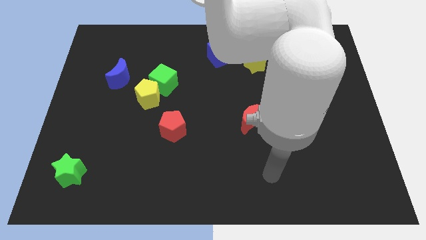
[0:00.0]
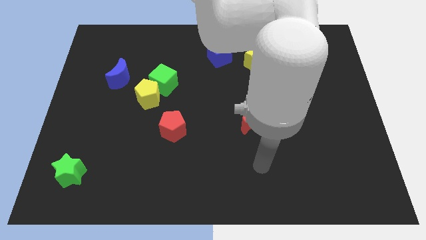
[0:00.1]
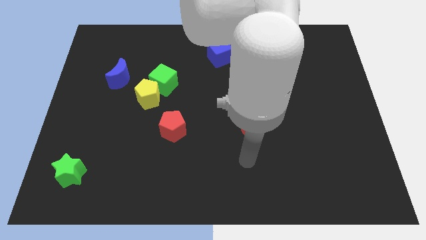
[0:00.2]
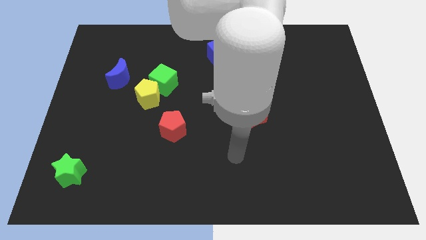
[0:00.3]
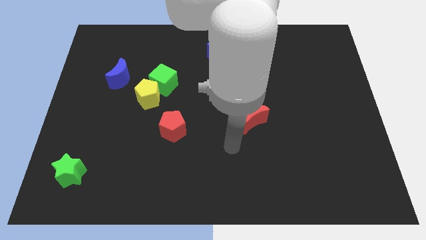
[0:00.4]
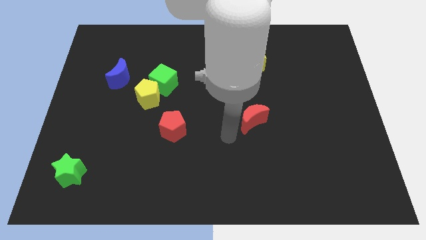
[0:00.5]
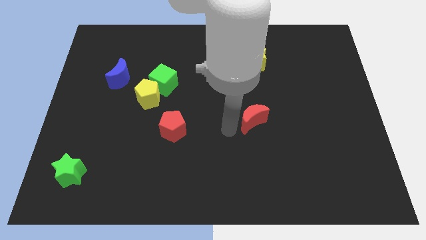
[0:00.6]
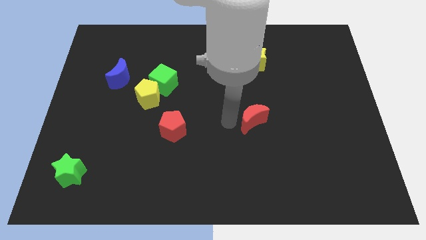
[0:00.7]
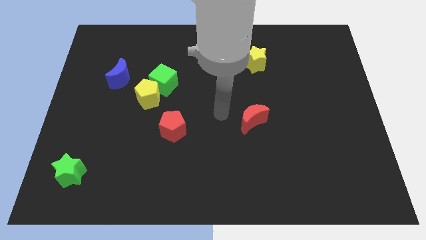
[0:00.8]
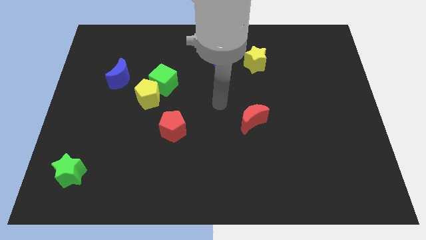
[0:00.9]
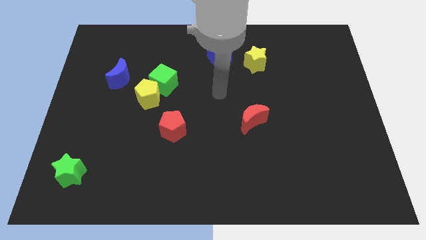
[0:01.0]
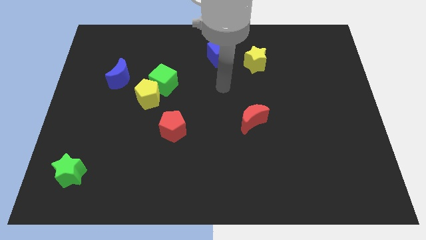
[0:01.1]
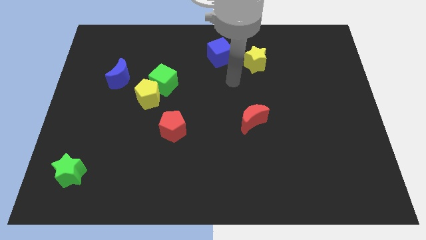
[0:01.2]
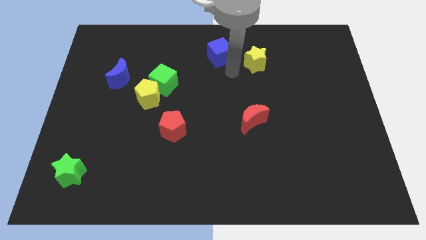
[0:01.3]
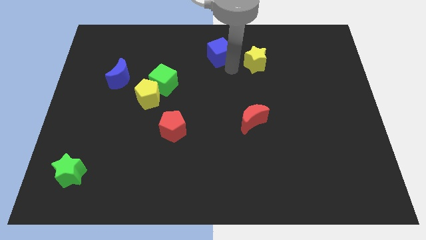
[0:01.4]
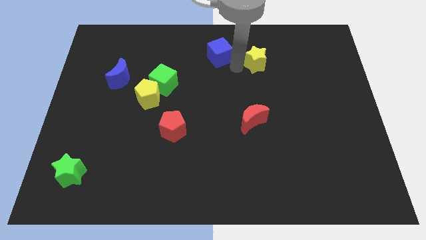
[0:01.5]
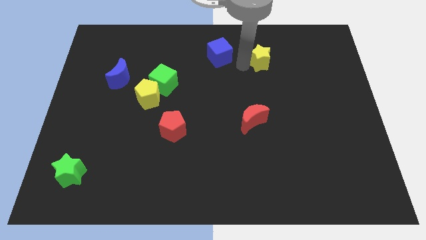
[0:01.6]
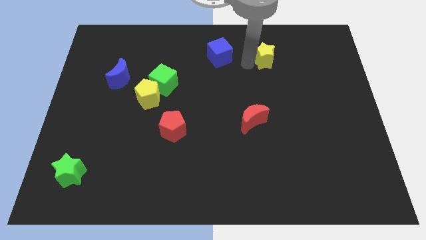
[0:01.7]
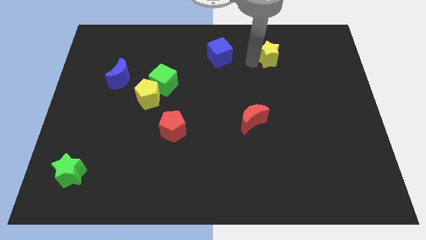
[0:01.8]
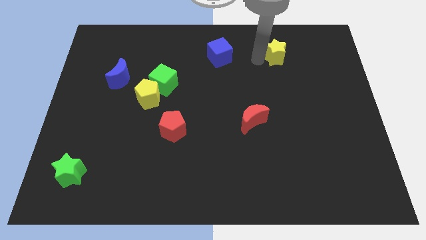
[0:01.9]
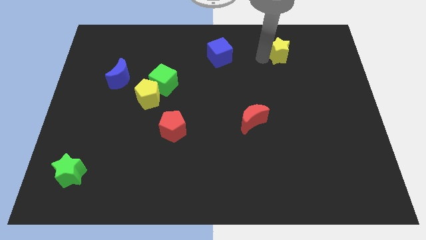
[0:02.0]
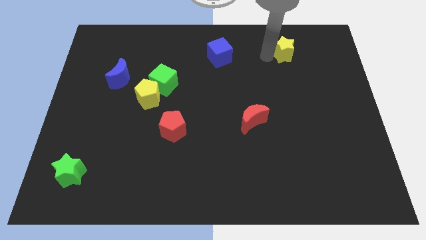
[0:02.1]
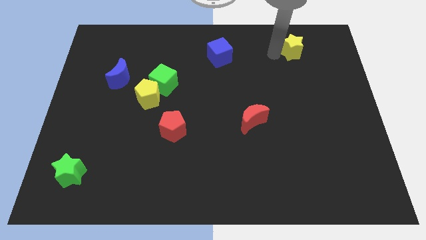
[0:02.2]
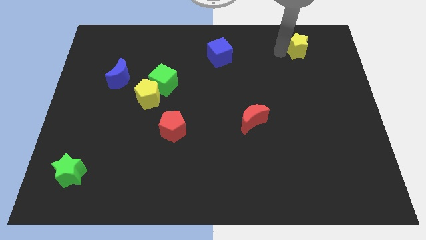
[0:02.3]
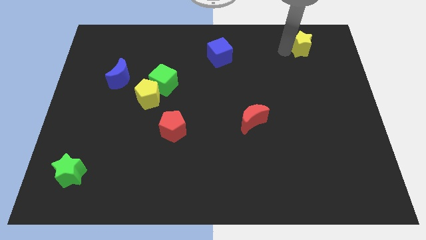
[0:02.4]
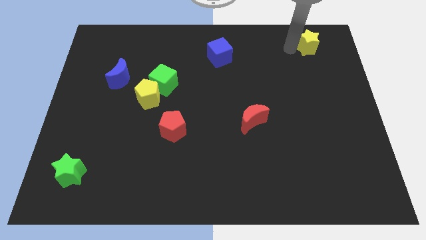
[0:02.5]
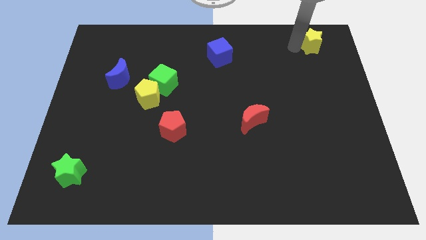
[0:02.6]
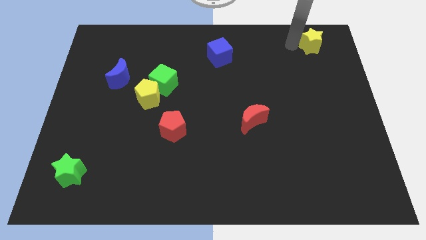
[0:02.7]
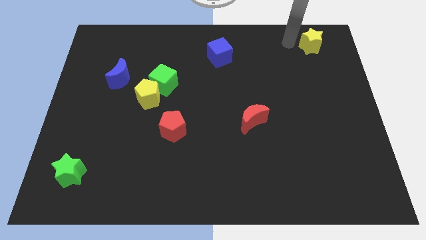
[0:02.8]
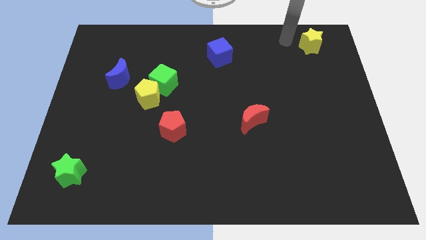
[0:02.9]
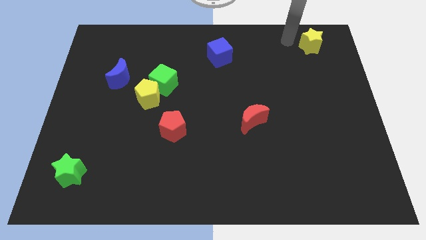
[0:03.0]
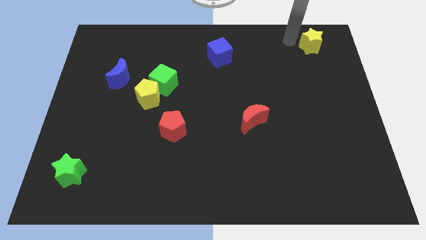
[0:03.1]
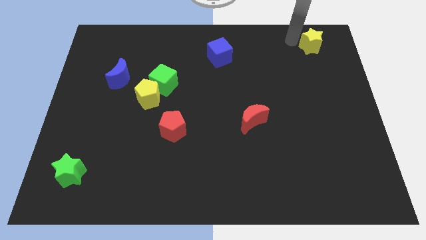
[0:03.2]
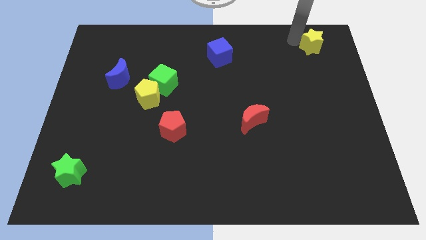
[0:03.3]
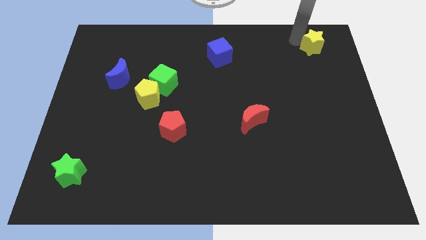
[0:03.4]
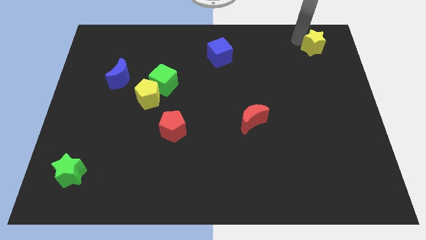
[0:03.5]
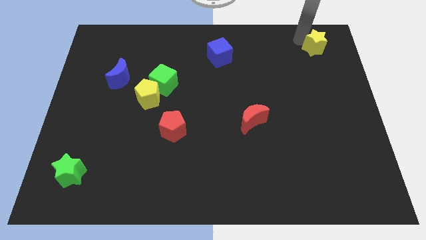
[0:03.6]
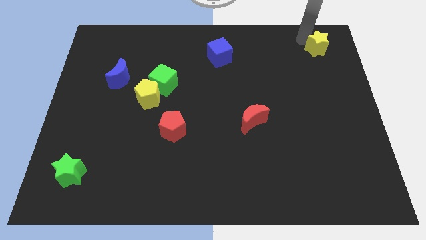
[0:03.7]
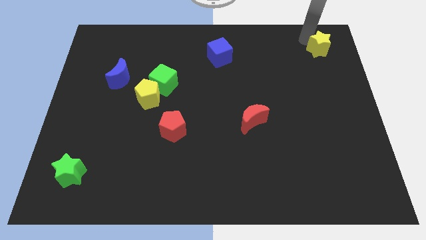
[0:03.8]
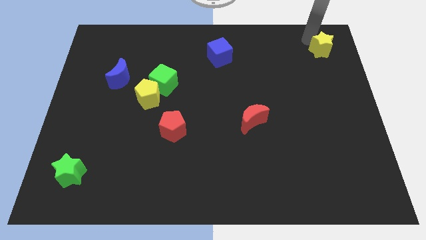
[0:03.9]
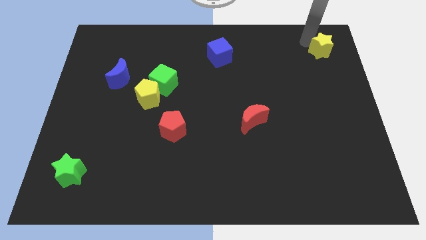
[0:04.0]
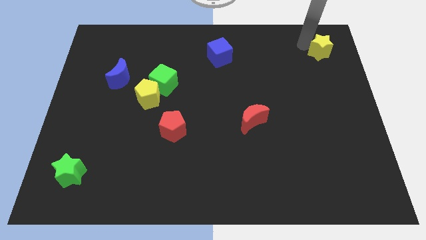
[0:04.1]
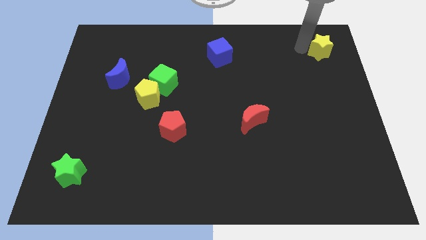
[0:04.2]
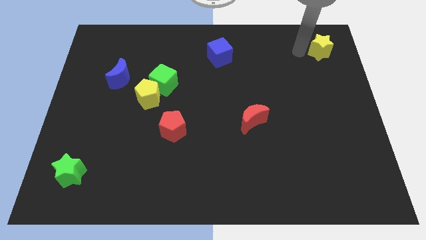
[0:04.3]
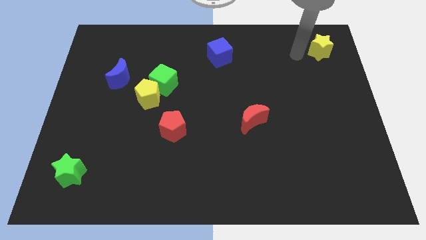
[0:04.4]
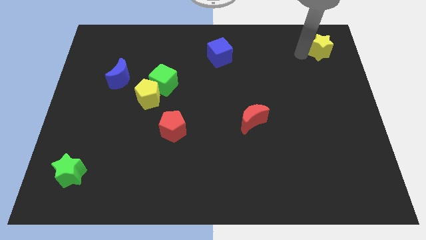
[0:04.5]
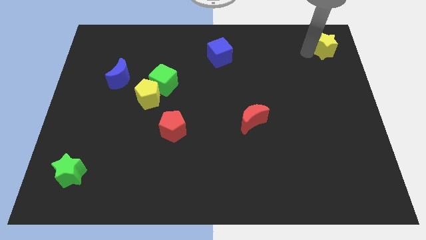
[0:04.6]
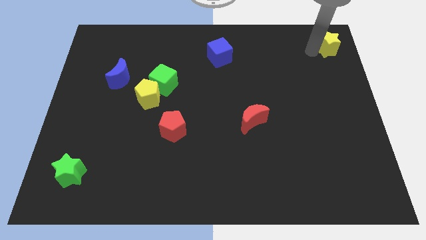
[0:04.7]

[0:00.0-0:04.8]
push the yellow star to the upper right corner

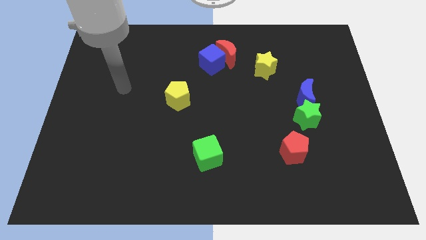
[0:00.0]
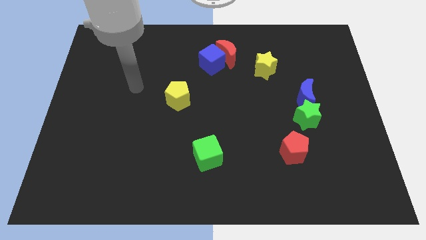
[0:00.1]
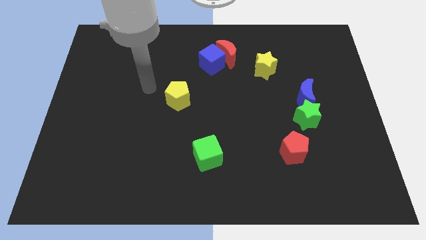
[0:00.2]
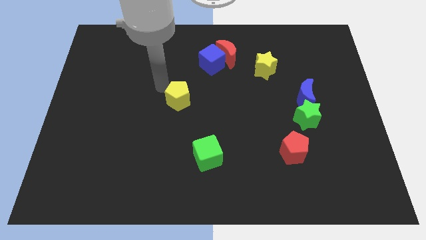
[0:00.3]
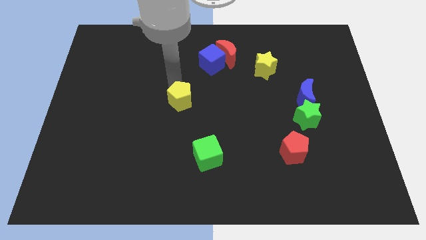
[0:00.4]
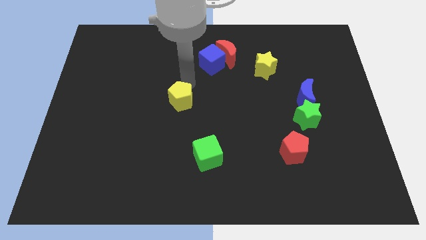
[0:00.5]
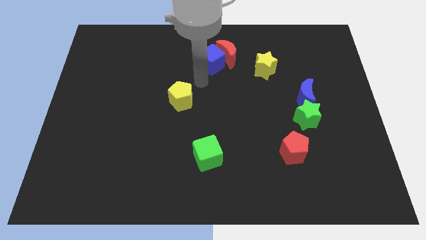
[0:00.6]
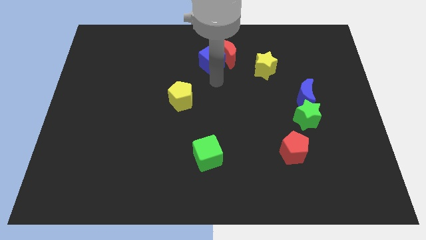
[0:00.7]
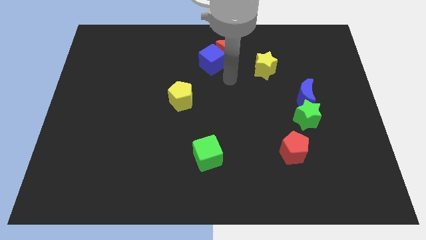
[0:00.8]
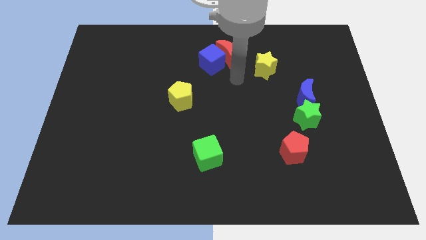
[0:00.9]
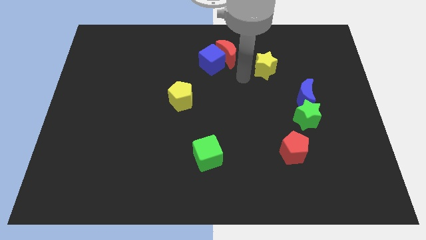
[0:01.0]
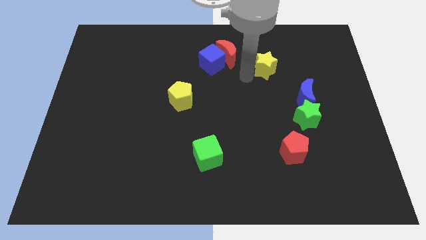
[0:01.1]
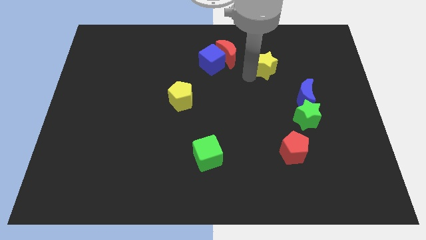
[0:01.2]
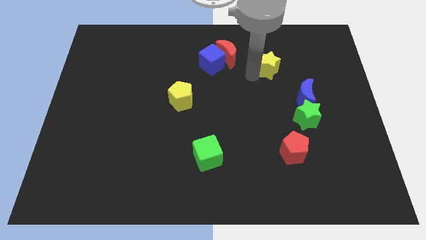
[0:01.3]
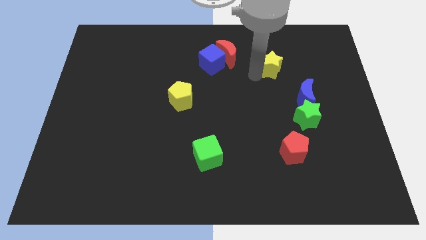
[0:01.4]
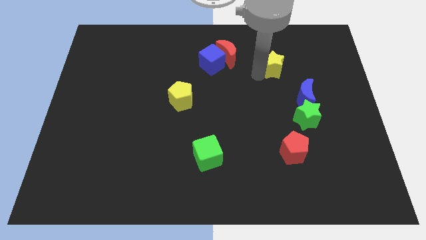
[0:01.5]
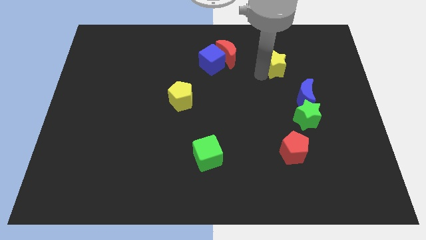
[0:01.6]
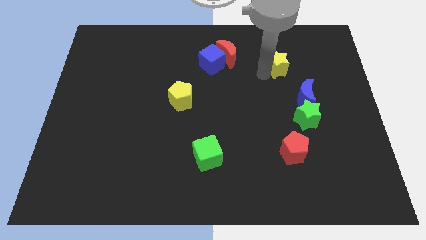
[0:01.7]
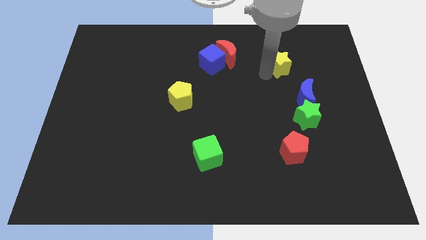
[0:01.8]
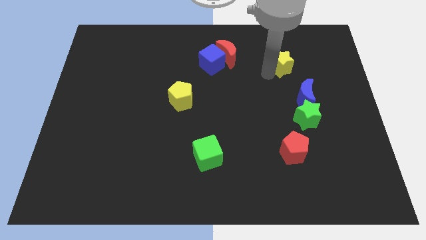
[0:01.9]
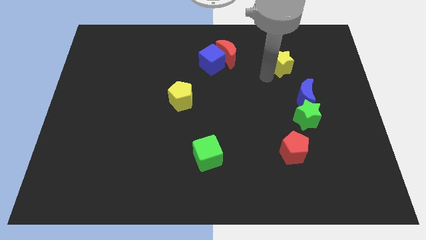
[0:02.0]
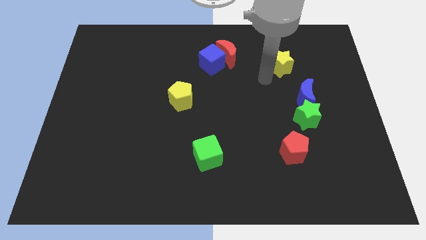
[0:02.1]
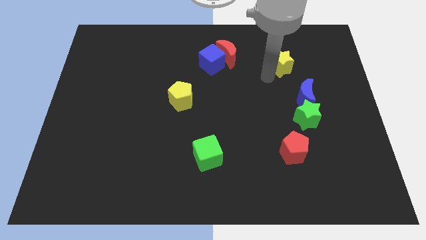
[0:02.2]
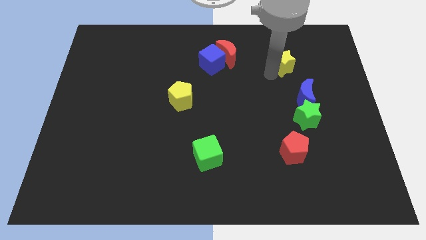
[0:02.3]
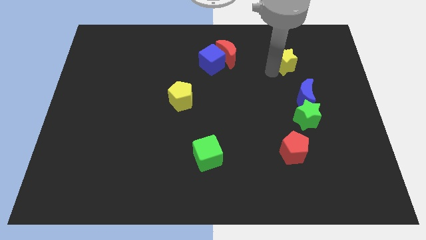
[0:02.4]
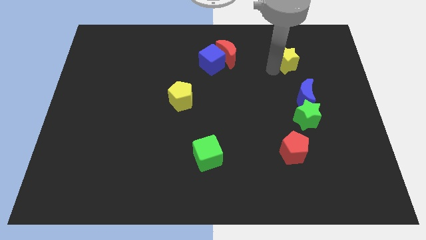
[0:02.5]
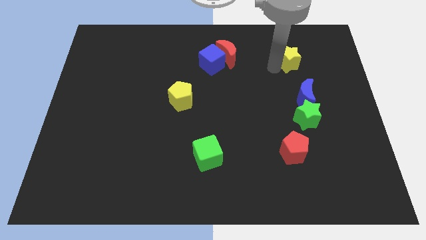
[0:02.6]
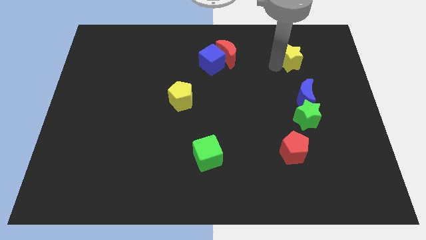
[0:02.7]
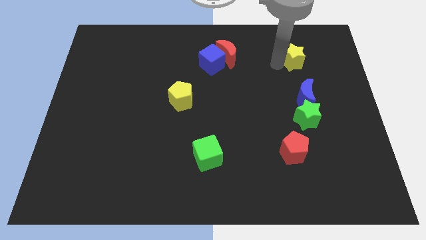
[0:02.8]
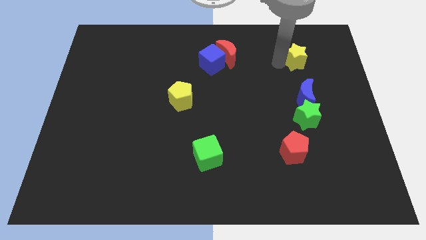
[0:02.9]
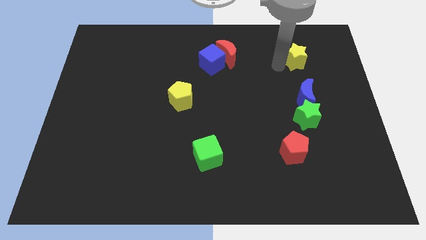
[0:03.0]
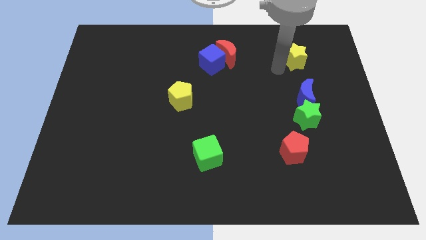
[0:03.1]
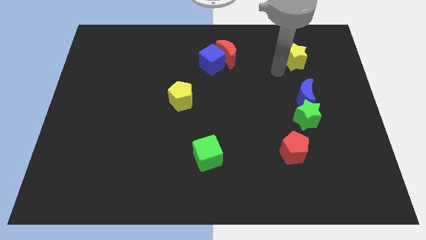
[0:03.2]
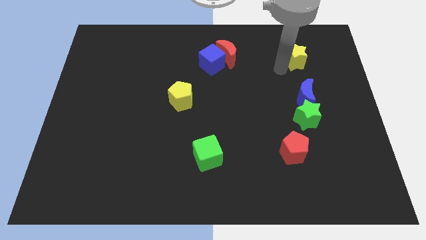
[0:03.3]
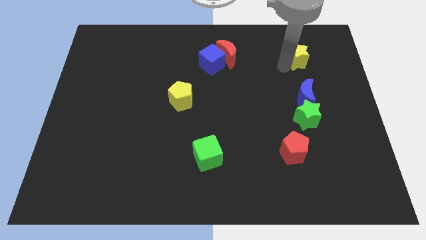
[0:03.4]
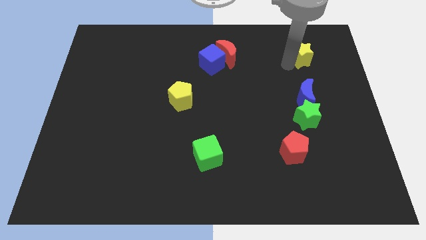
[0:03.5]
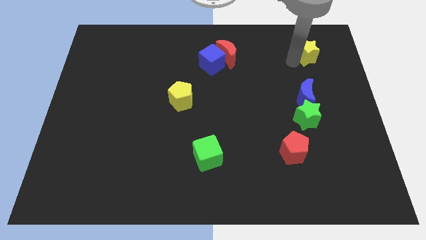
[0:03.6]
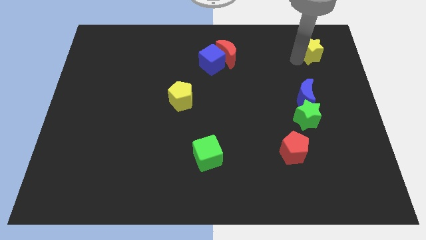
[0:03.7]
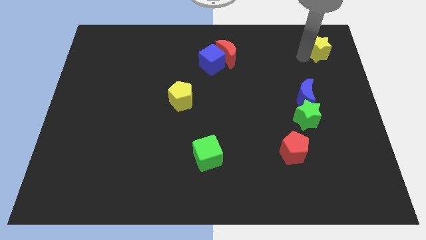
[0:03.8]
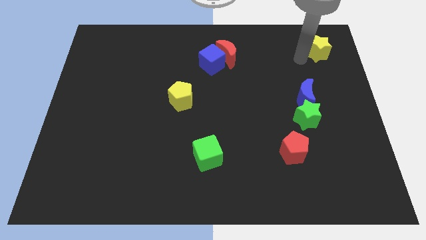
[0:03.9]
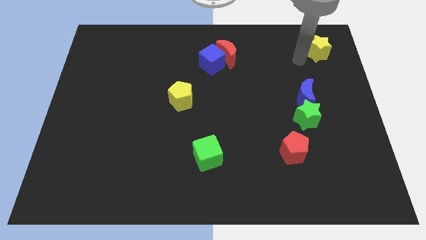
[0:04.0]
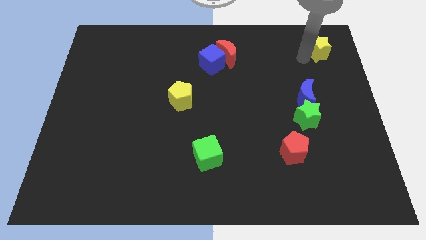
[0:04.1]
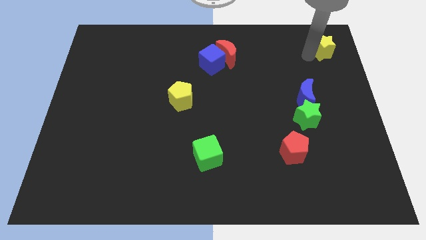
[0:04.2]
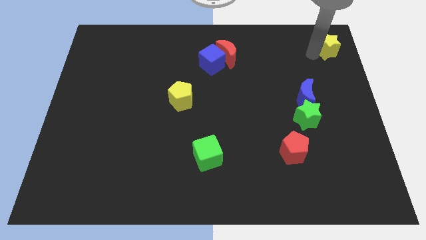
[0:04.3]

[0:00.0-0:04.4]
slide the yellow star to the top right
